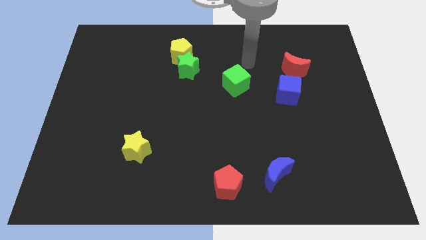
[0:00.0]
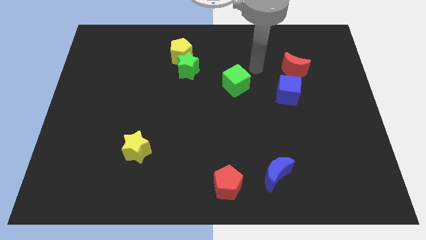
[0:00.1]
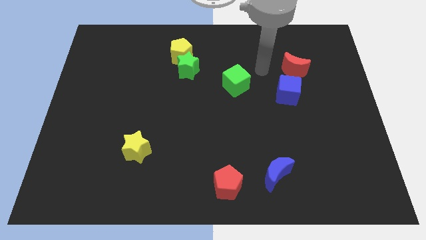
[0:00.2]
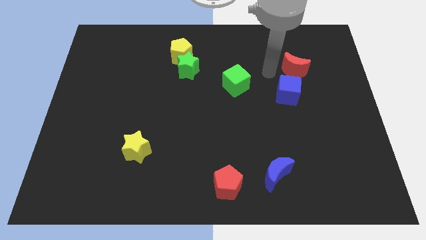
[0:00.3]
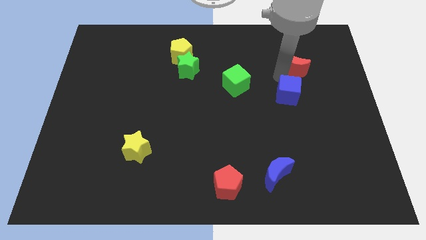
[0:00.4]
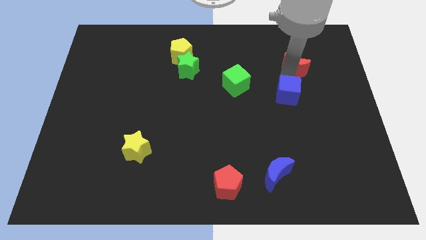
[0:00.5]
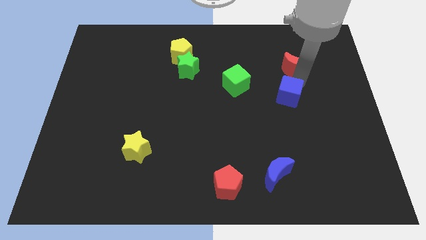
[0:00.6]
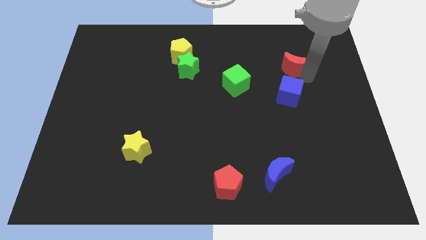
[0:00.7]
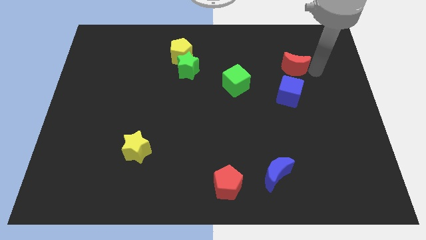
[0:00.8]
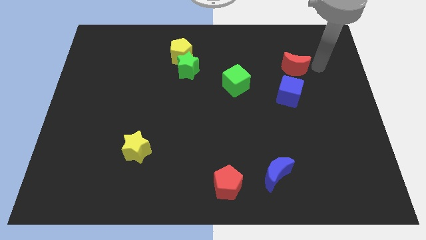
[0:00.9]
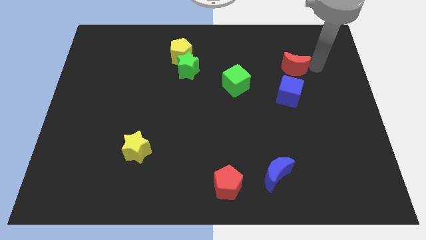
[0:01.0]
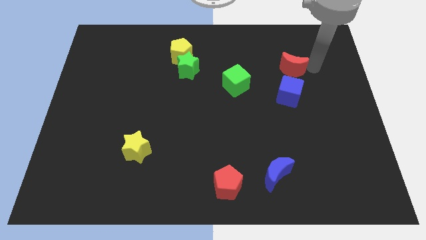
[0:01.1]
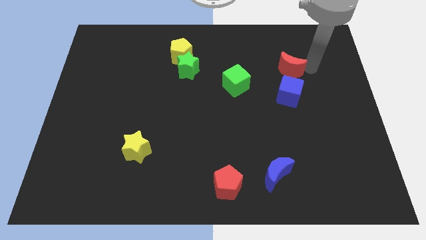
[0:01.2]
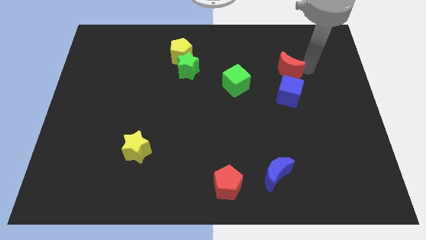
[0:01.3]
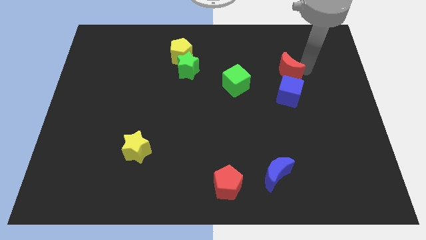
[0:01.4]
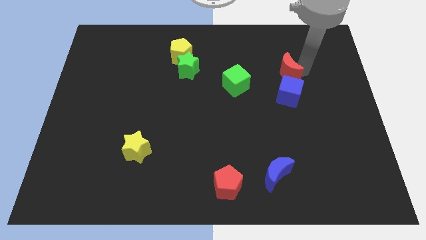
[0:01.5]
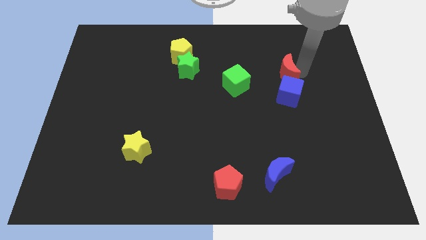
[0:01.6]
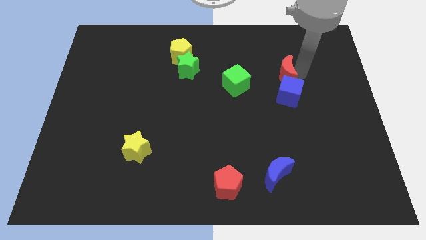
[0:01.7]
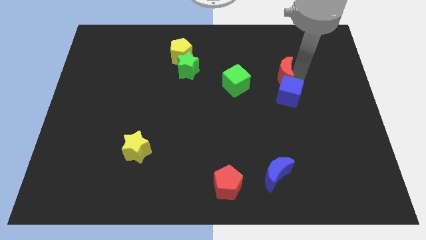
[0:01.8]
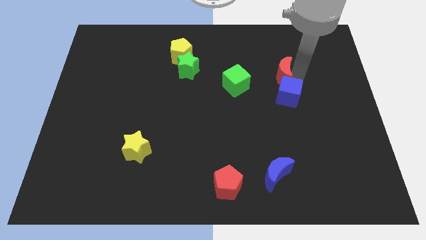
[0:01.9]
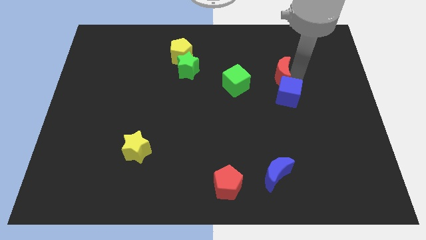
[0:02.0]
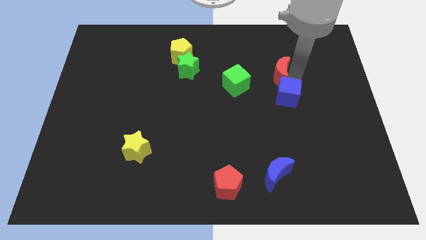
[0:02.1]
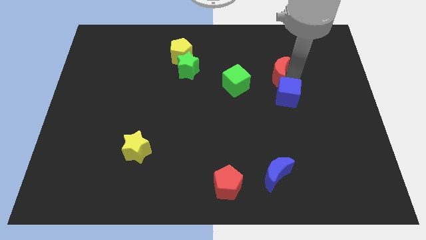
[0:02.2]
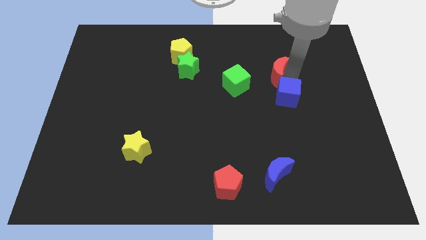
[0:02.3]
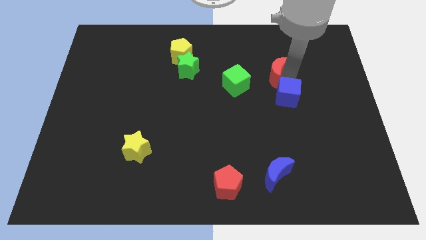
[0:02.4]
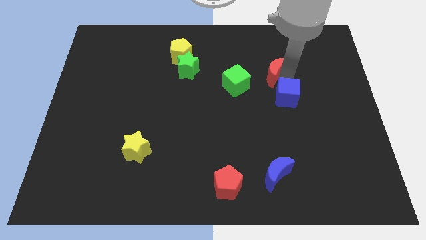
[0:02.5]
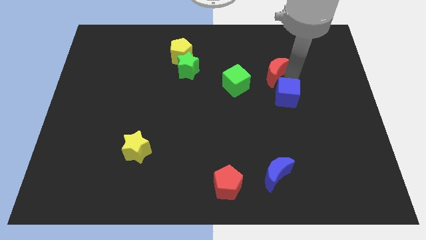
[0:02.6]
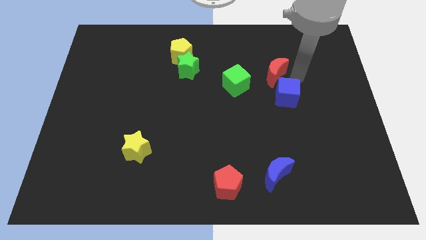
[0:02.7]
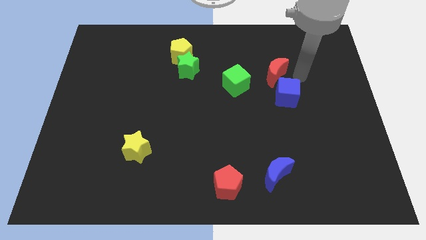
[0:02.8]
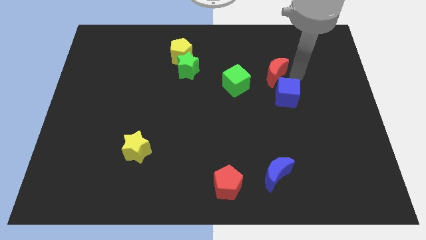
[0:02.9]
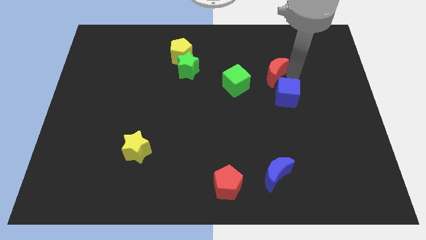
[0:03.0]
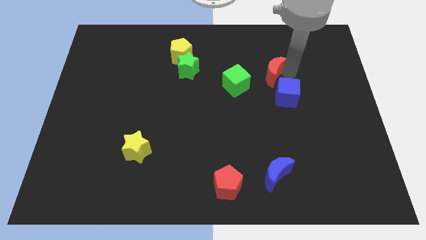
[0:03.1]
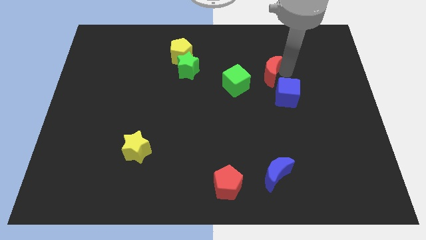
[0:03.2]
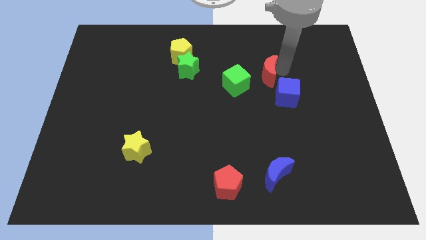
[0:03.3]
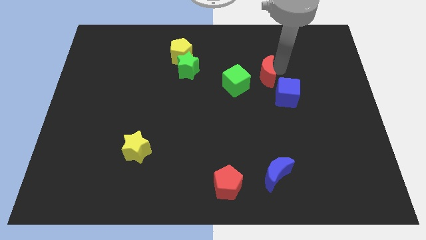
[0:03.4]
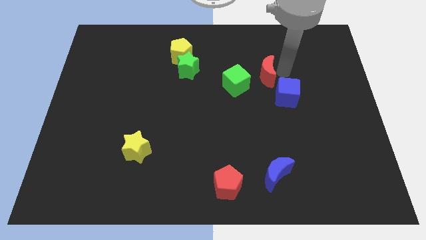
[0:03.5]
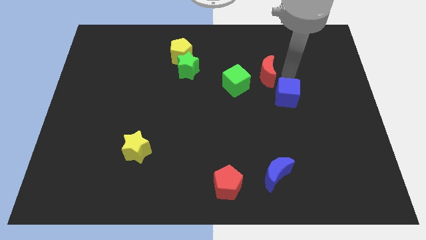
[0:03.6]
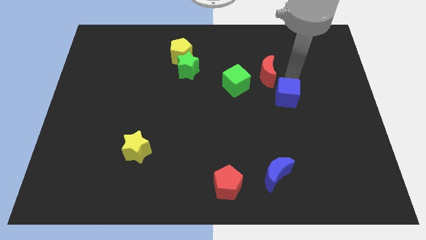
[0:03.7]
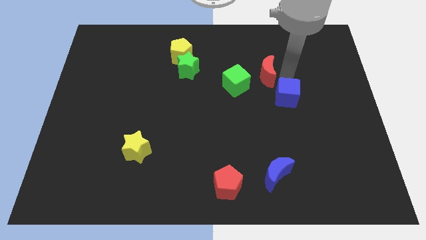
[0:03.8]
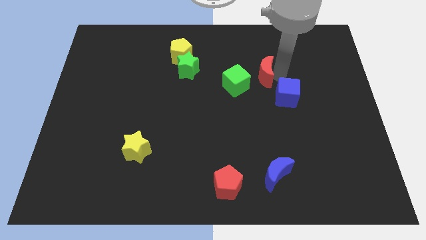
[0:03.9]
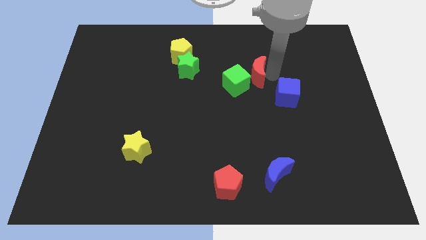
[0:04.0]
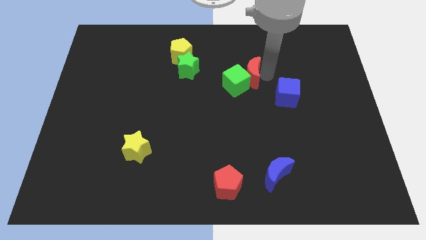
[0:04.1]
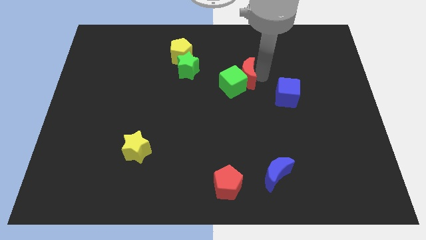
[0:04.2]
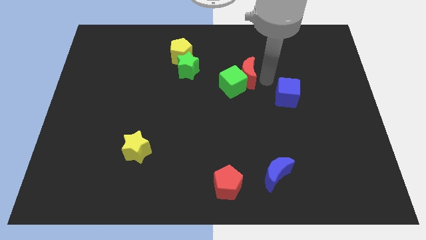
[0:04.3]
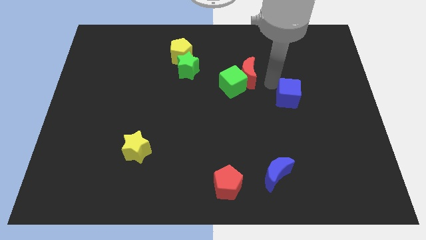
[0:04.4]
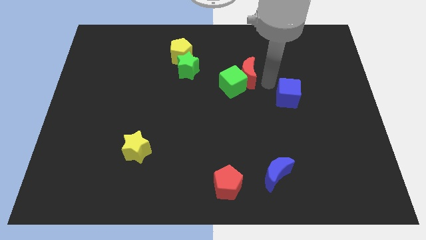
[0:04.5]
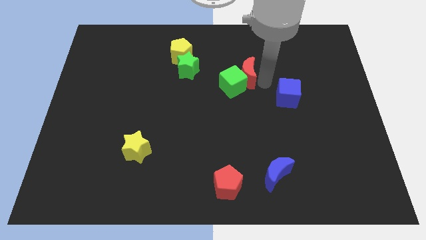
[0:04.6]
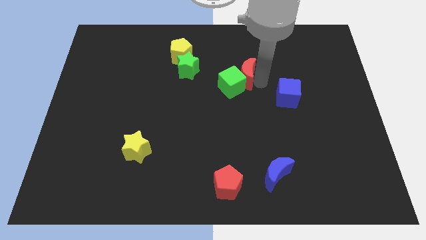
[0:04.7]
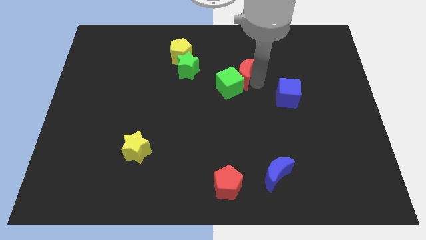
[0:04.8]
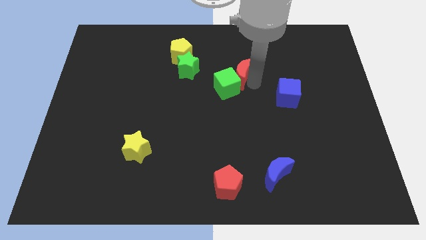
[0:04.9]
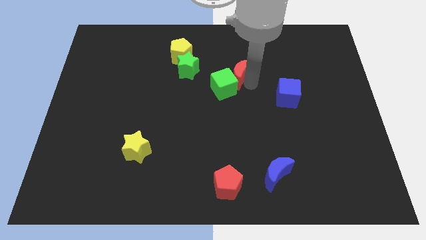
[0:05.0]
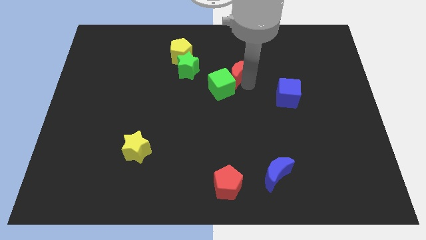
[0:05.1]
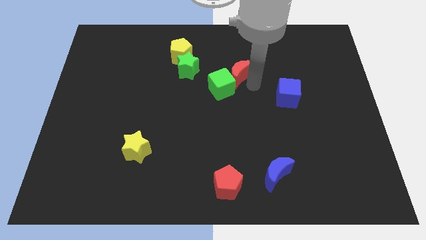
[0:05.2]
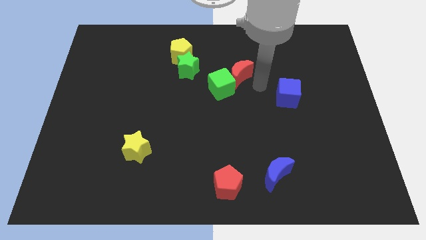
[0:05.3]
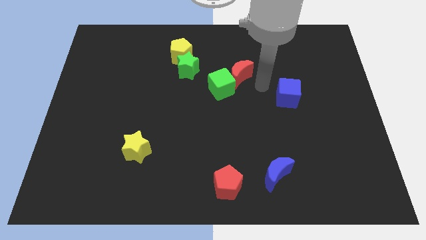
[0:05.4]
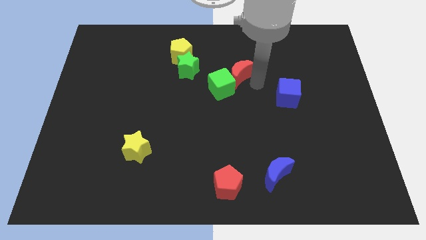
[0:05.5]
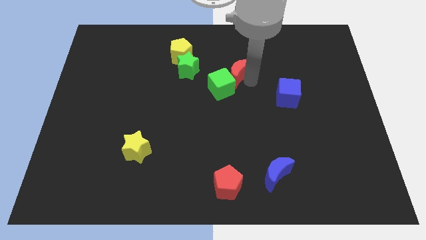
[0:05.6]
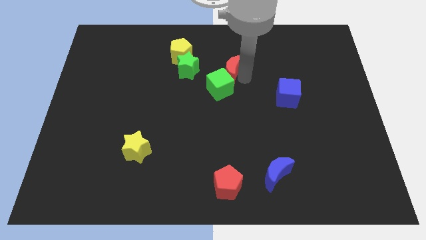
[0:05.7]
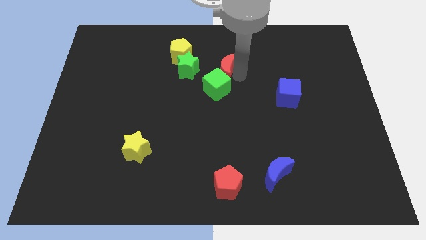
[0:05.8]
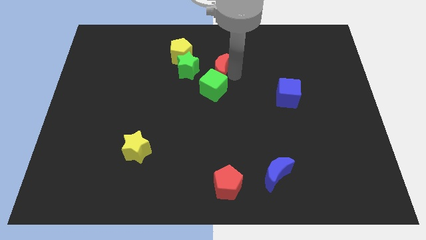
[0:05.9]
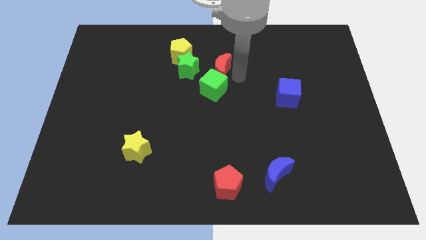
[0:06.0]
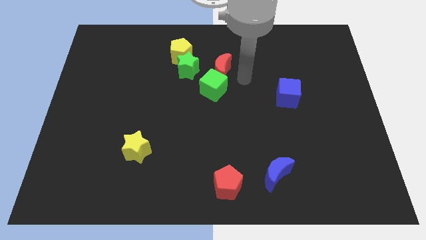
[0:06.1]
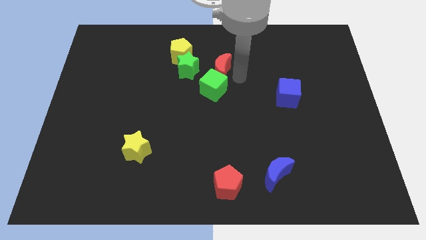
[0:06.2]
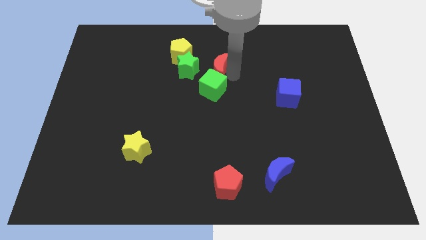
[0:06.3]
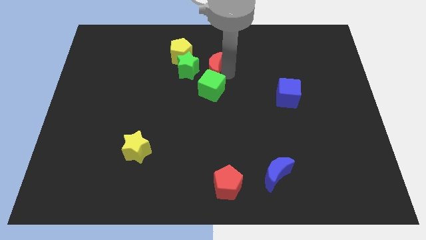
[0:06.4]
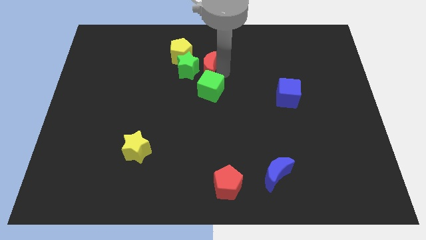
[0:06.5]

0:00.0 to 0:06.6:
push the red moon towards the green star

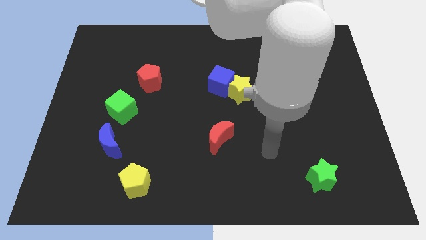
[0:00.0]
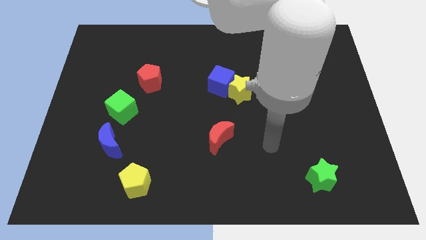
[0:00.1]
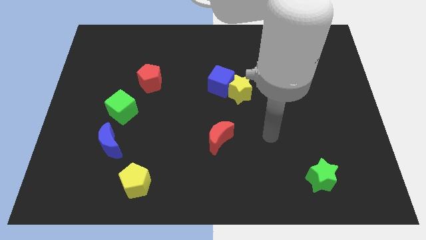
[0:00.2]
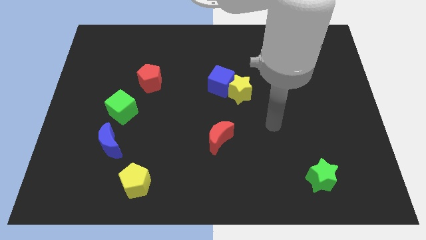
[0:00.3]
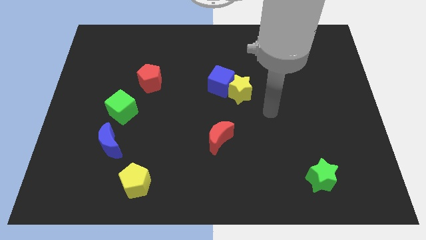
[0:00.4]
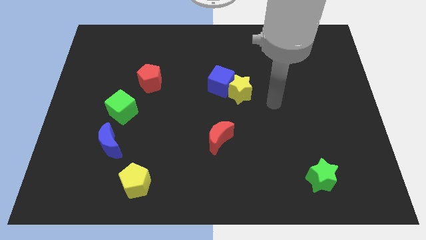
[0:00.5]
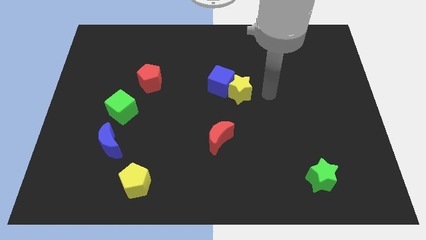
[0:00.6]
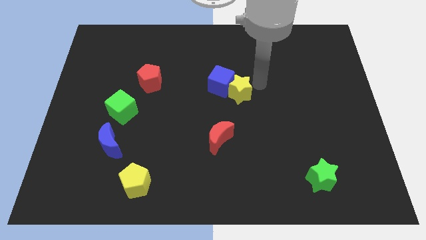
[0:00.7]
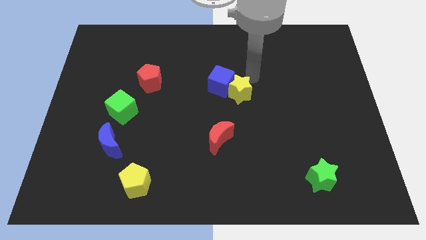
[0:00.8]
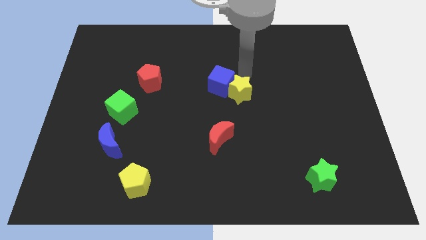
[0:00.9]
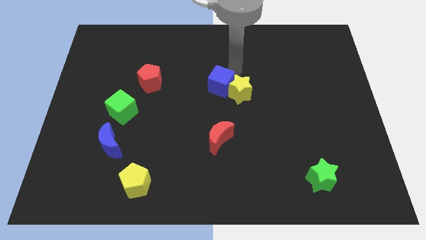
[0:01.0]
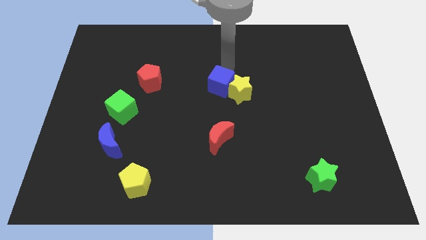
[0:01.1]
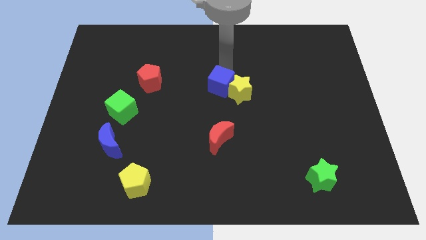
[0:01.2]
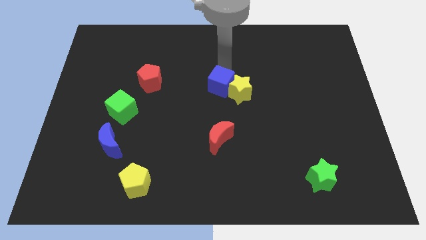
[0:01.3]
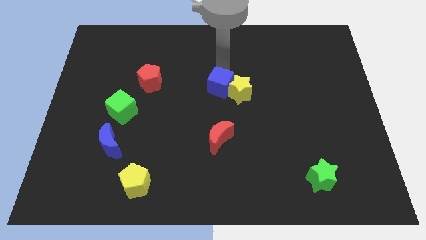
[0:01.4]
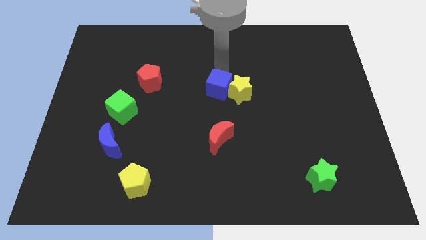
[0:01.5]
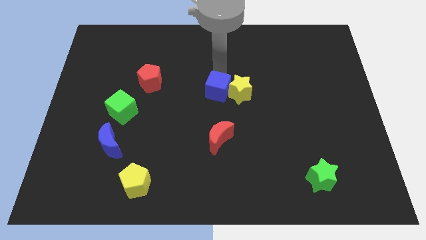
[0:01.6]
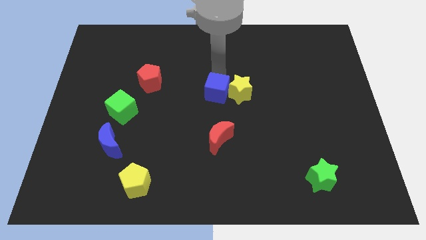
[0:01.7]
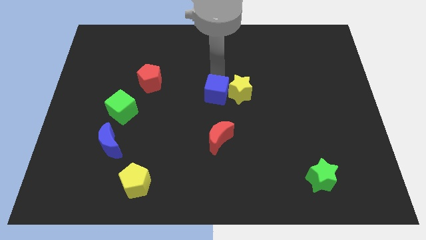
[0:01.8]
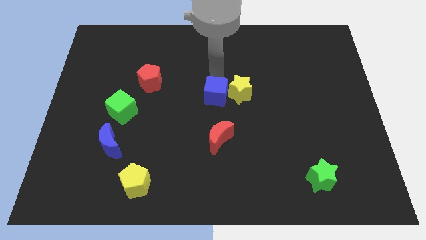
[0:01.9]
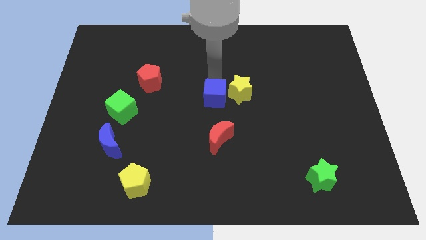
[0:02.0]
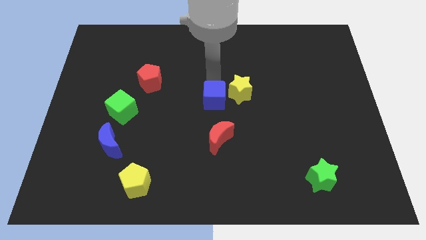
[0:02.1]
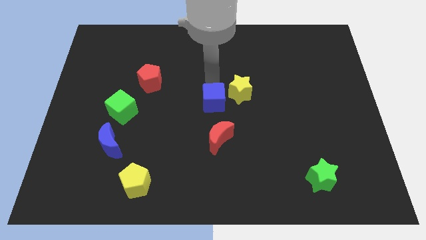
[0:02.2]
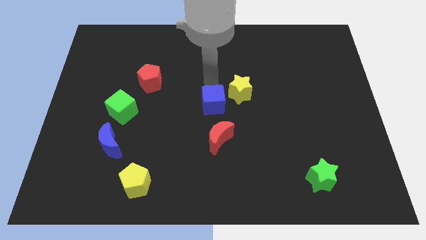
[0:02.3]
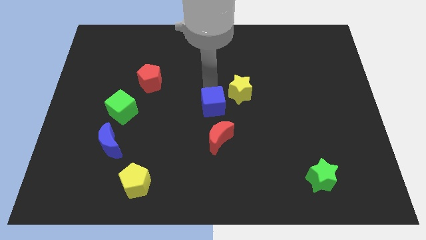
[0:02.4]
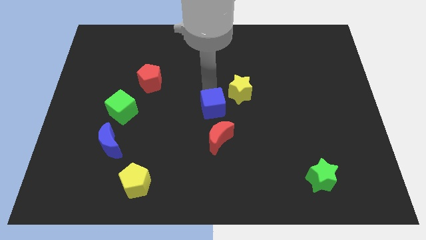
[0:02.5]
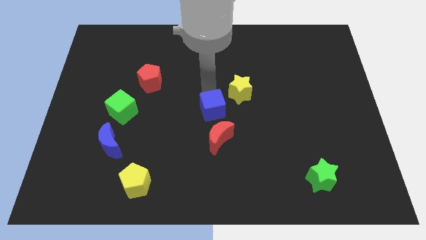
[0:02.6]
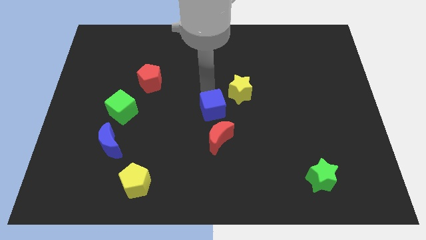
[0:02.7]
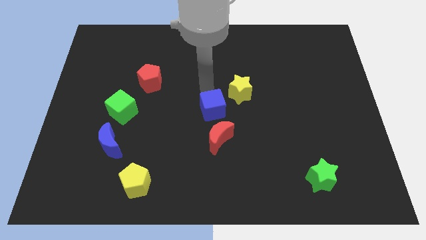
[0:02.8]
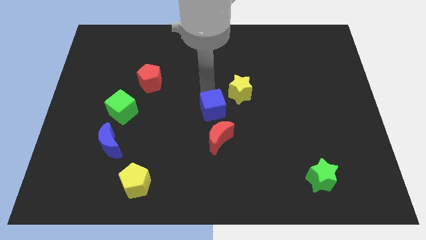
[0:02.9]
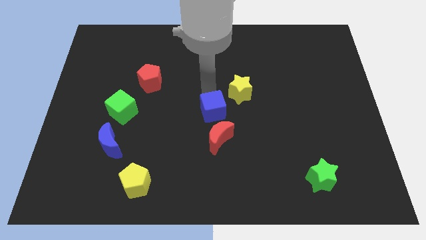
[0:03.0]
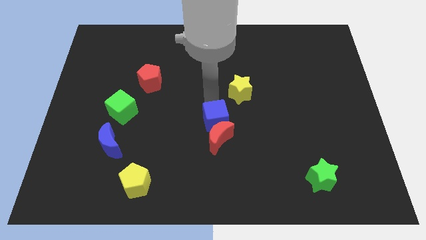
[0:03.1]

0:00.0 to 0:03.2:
put the blue cube next to the red moon
